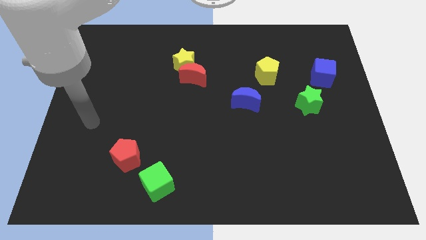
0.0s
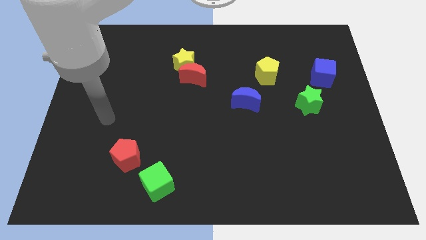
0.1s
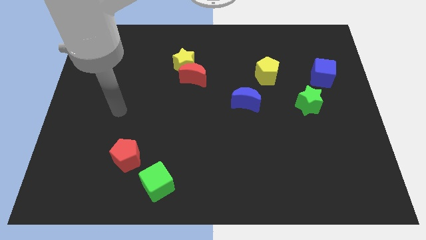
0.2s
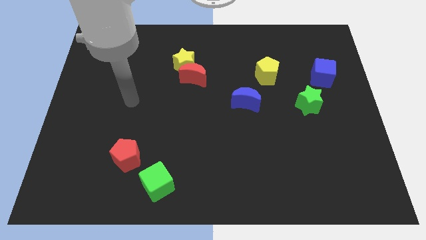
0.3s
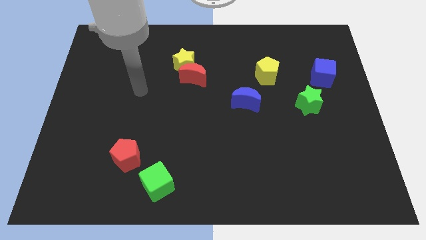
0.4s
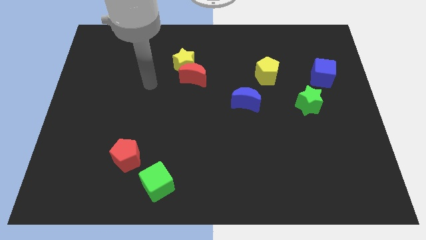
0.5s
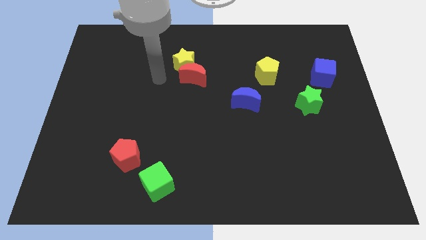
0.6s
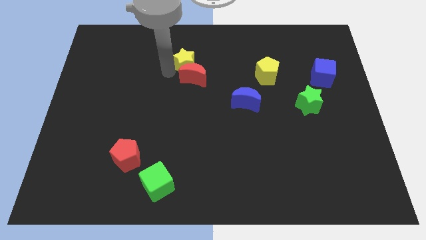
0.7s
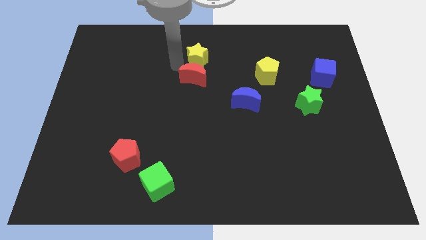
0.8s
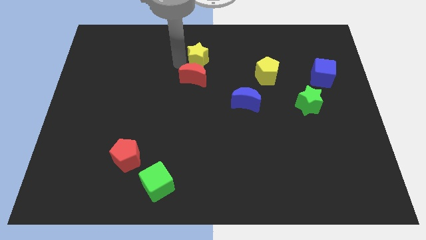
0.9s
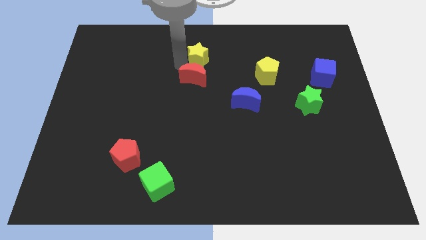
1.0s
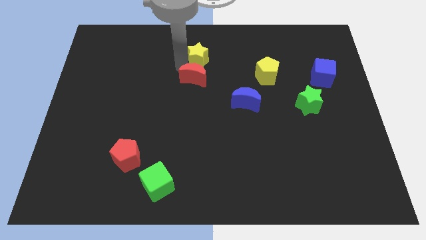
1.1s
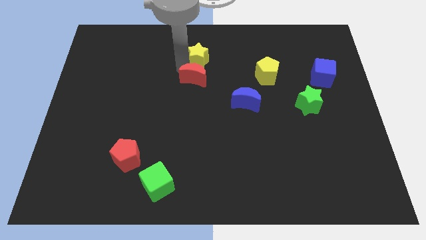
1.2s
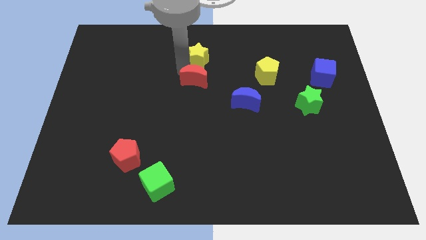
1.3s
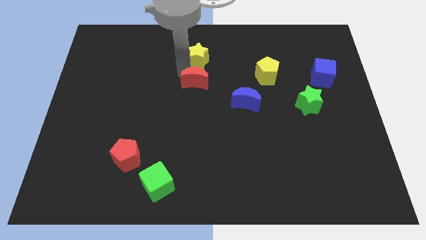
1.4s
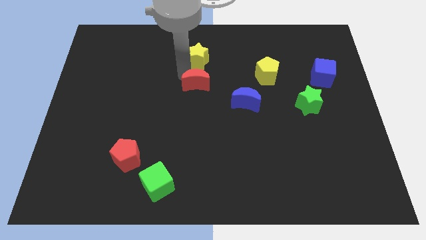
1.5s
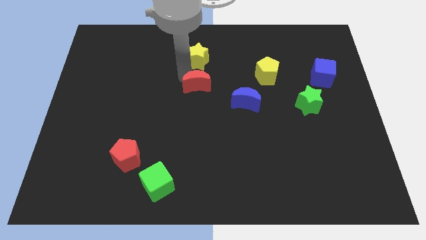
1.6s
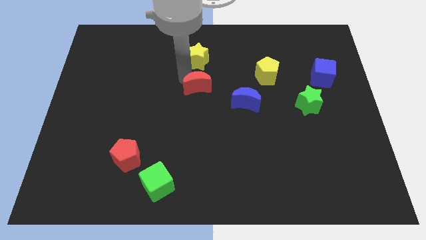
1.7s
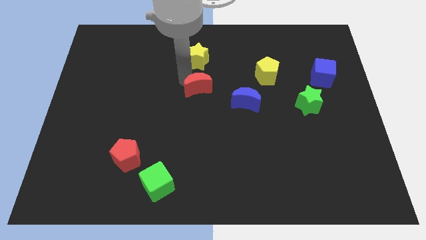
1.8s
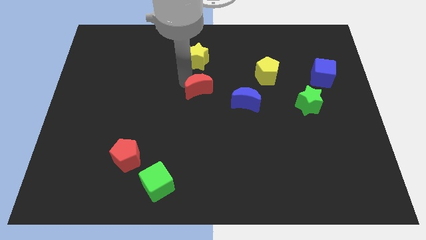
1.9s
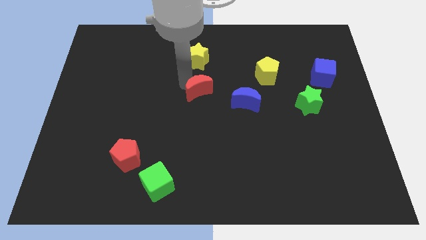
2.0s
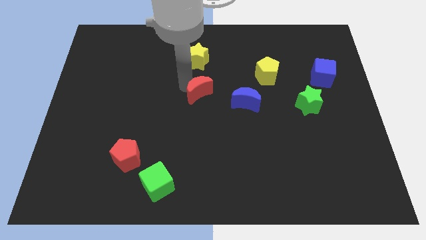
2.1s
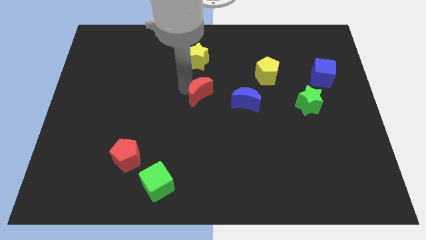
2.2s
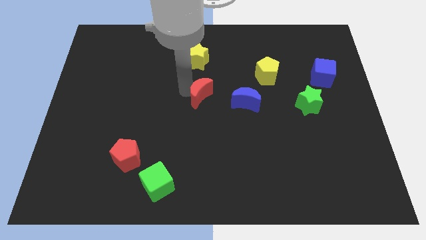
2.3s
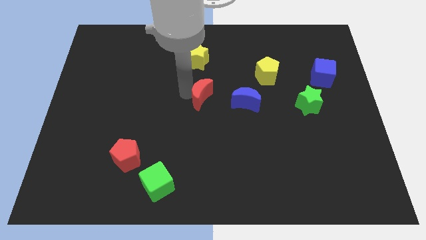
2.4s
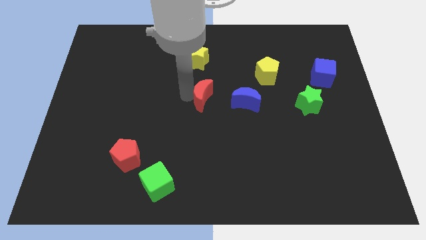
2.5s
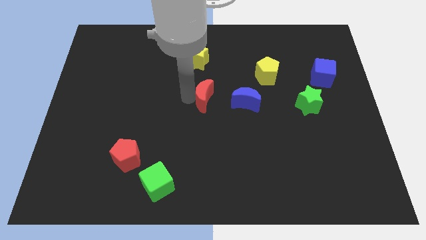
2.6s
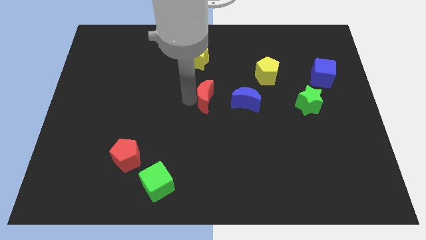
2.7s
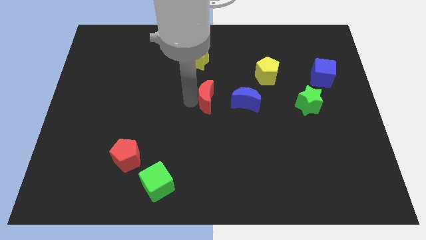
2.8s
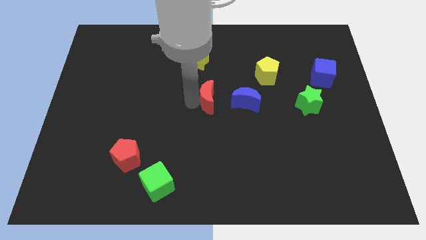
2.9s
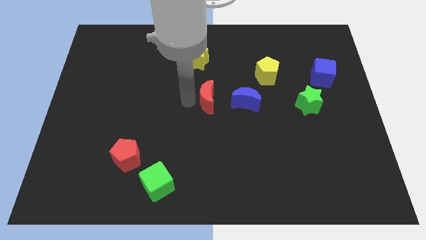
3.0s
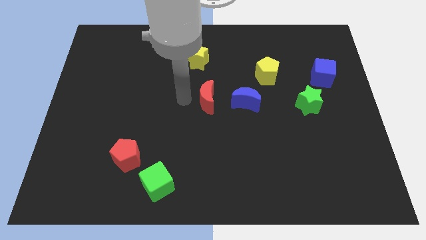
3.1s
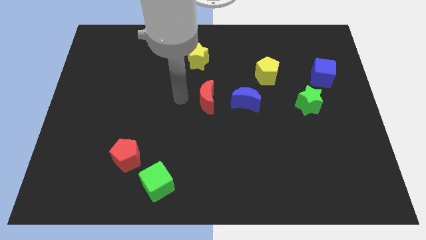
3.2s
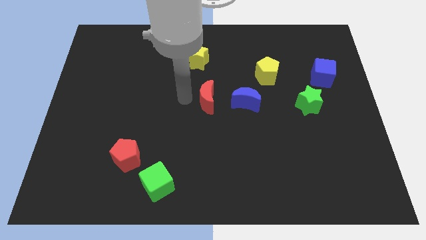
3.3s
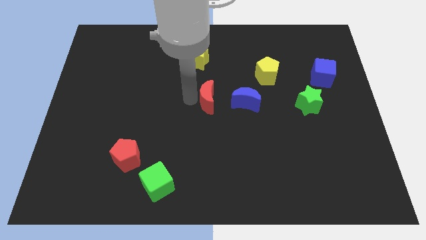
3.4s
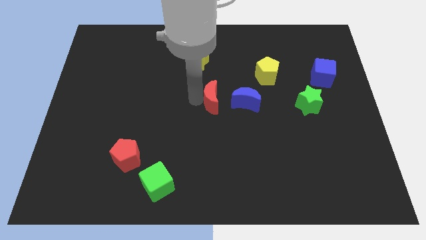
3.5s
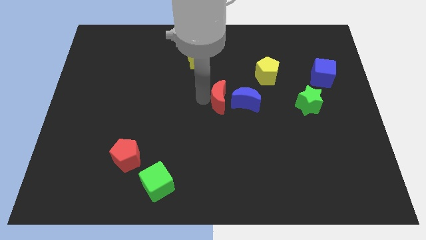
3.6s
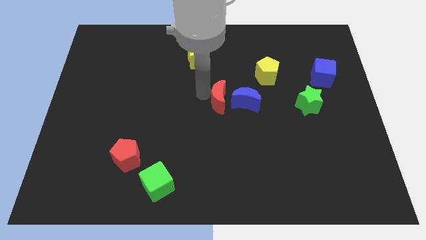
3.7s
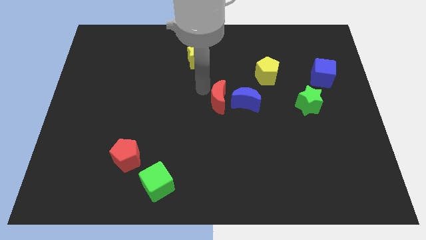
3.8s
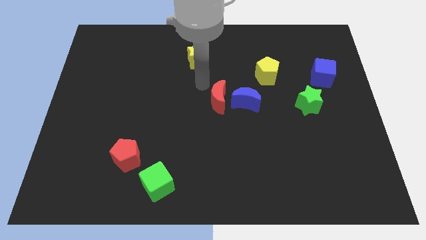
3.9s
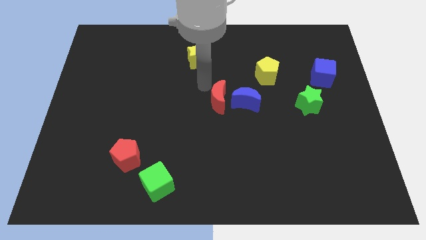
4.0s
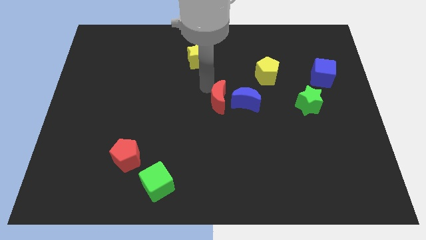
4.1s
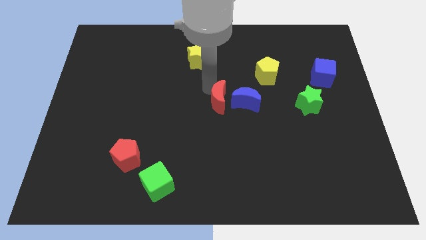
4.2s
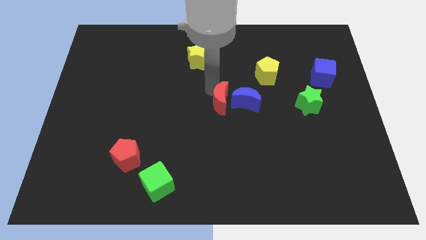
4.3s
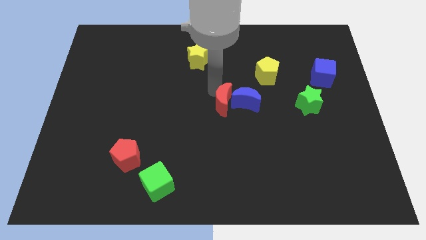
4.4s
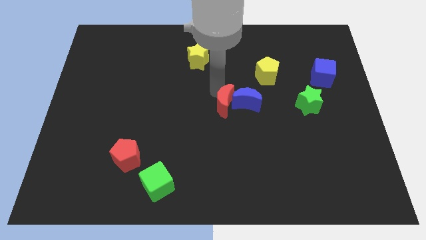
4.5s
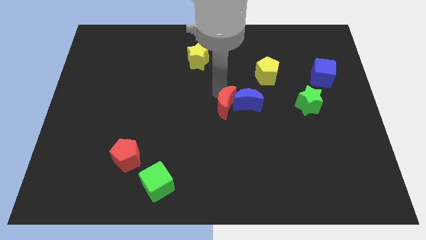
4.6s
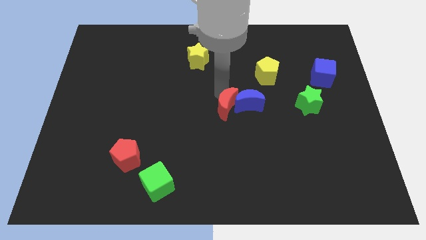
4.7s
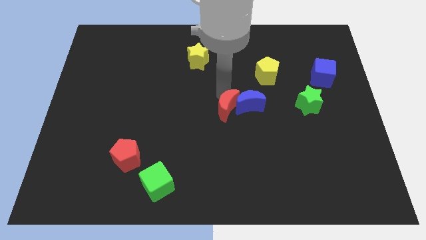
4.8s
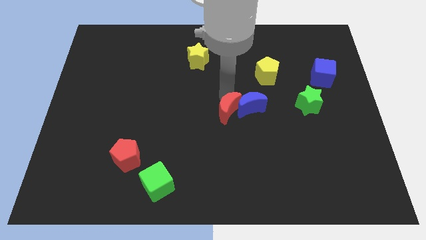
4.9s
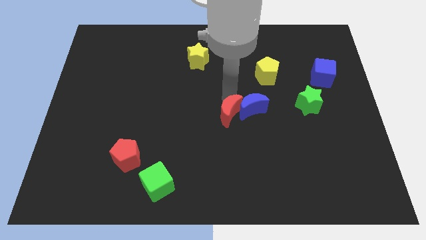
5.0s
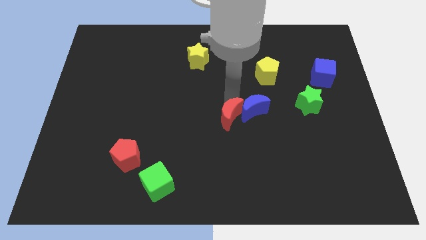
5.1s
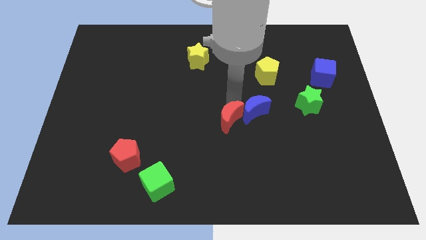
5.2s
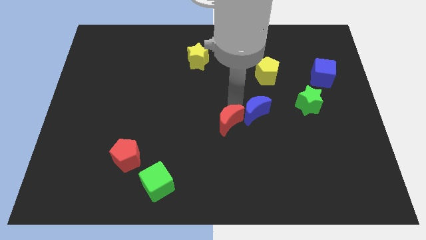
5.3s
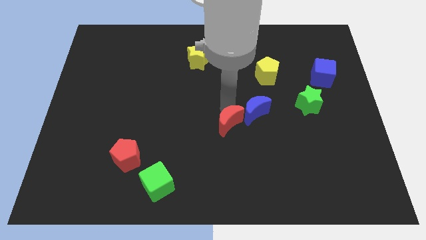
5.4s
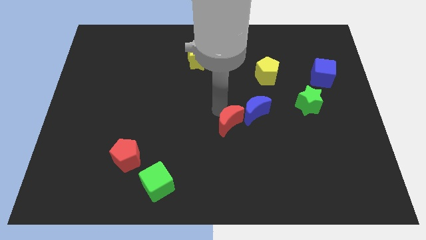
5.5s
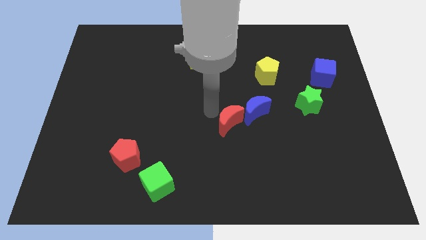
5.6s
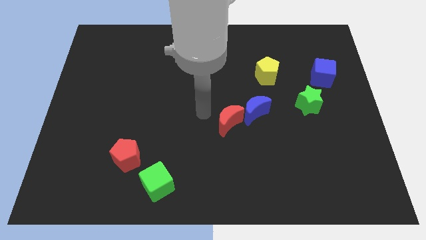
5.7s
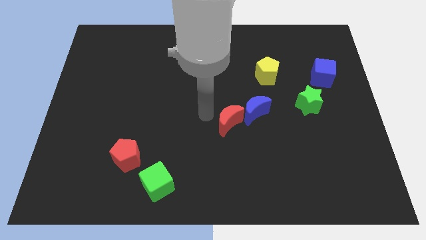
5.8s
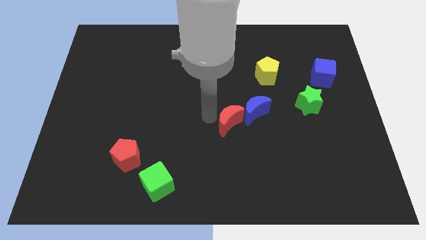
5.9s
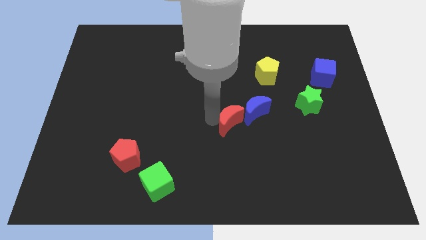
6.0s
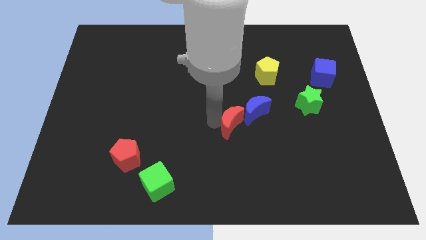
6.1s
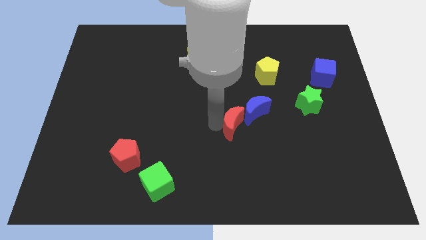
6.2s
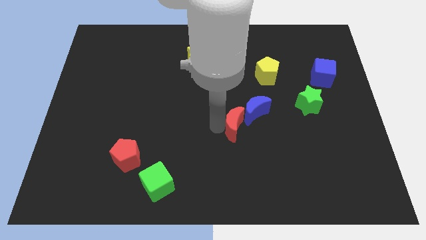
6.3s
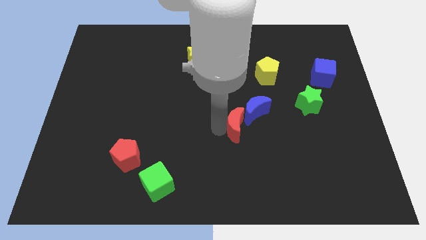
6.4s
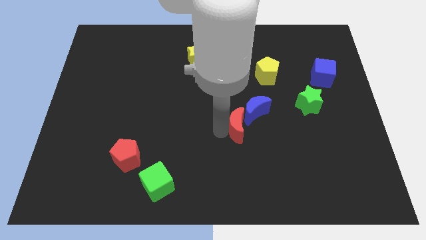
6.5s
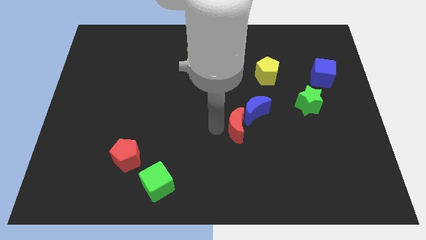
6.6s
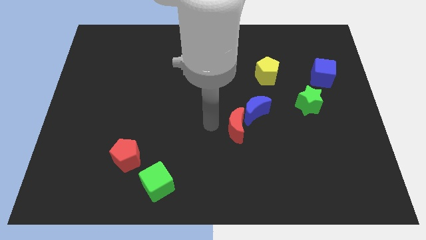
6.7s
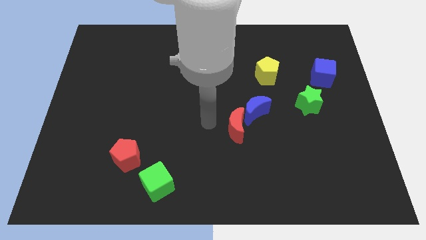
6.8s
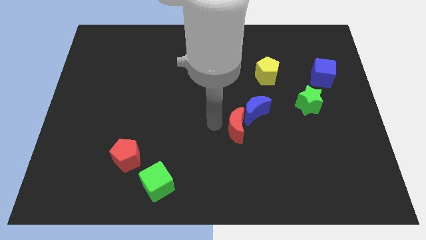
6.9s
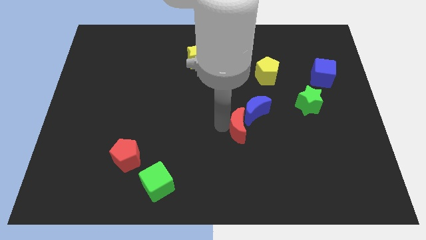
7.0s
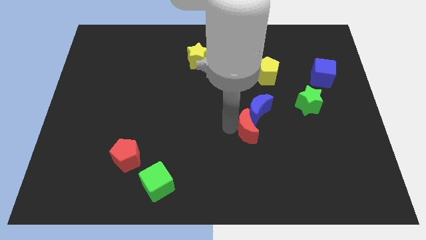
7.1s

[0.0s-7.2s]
slide the red moon down and then to the right

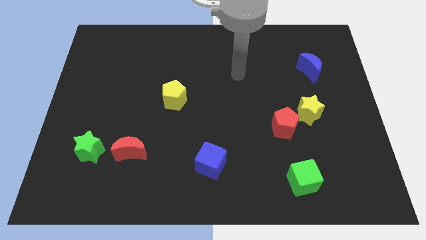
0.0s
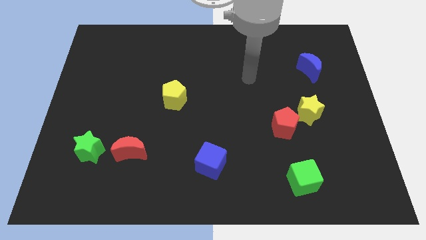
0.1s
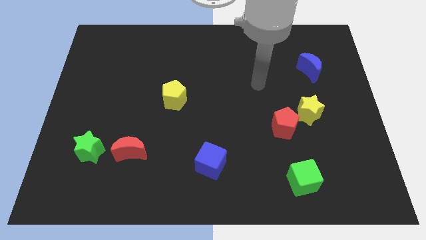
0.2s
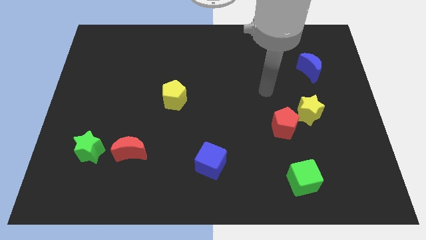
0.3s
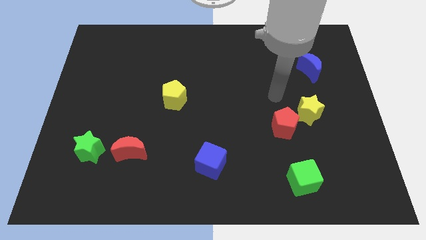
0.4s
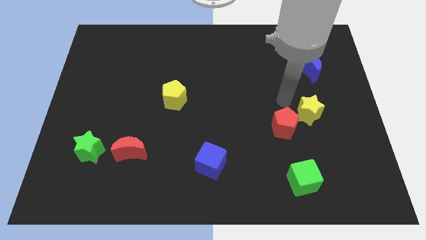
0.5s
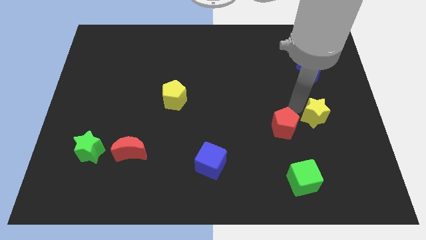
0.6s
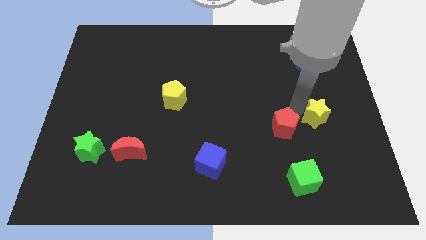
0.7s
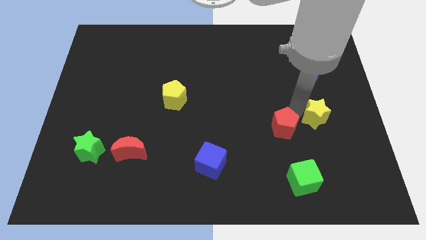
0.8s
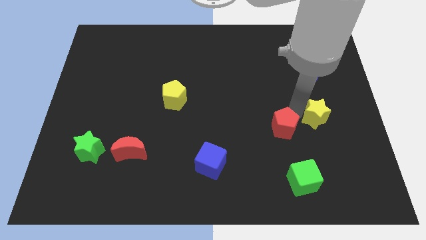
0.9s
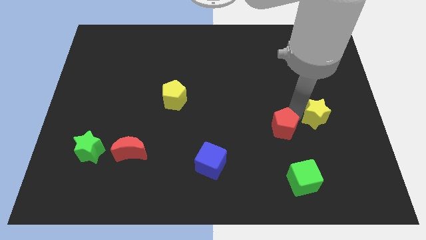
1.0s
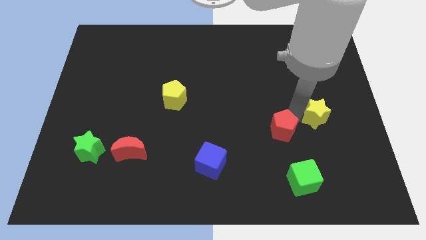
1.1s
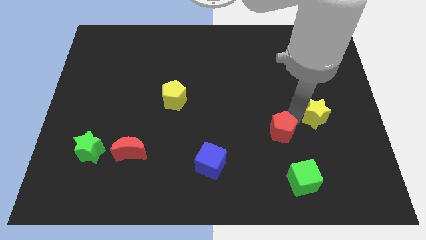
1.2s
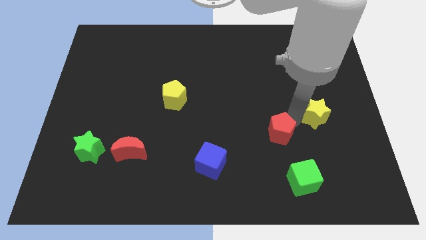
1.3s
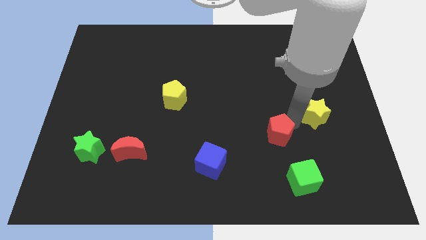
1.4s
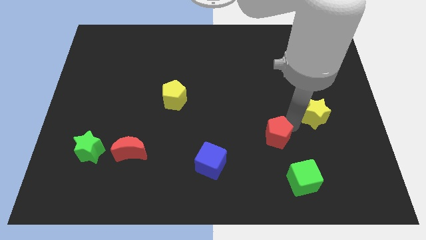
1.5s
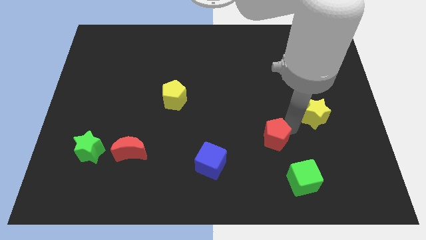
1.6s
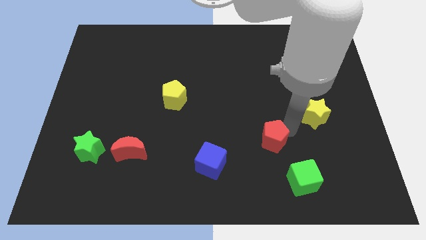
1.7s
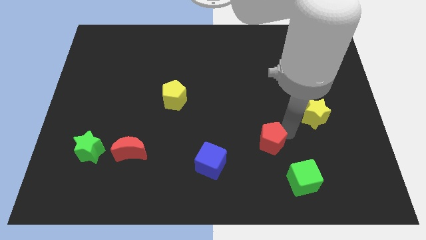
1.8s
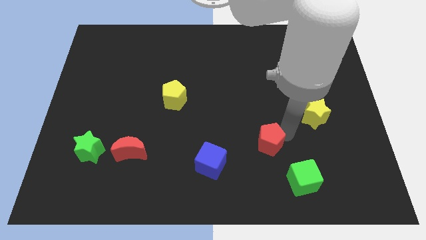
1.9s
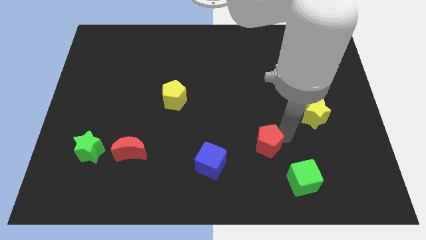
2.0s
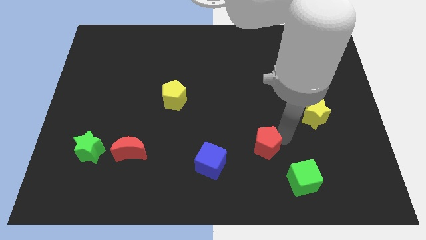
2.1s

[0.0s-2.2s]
push the red pentagon slightly diagonally downwards and left
